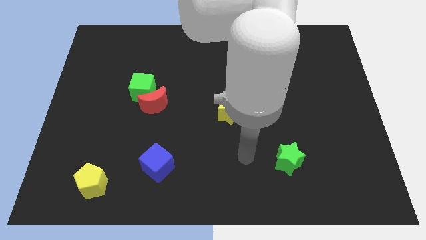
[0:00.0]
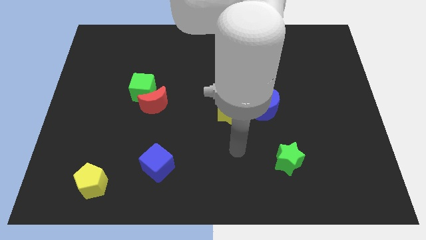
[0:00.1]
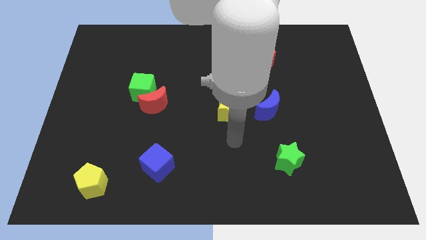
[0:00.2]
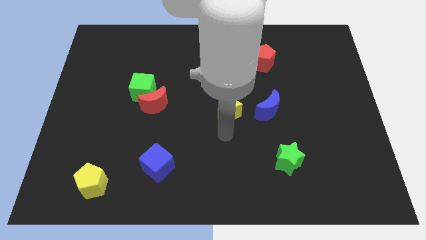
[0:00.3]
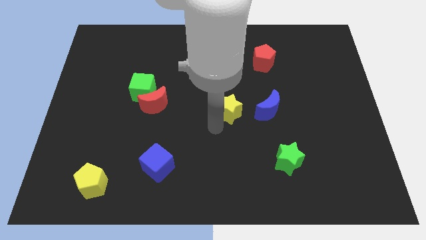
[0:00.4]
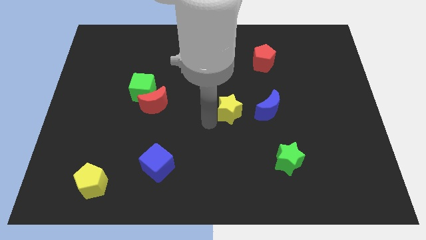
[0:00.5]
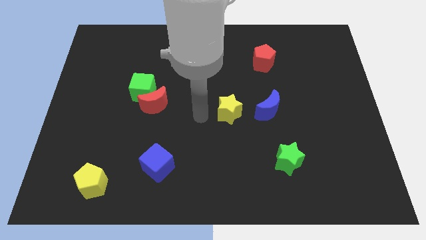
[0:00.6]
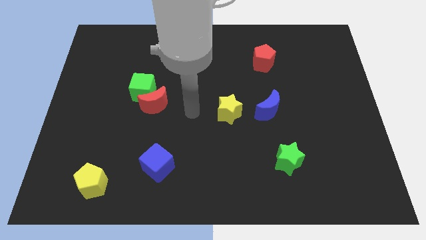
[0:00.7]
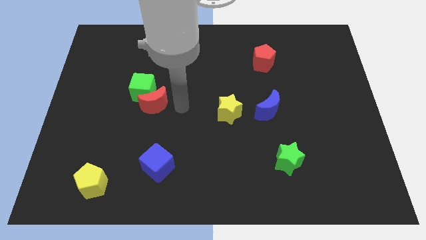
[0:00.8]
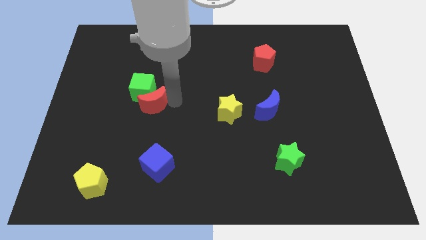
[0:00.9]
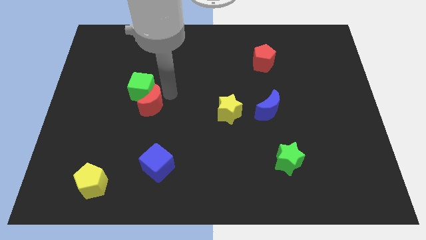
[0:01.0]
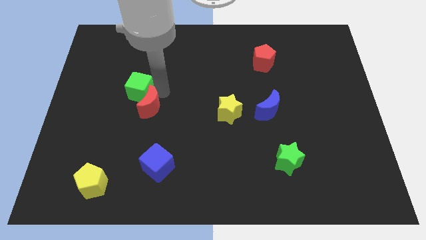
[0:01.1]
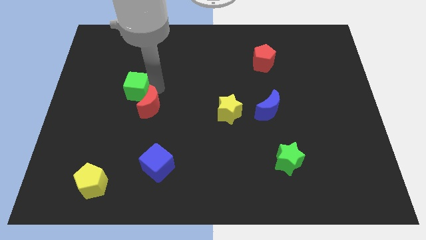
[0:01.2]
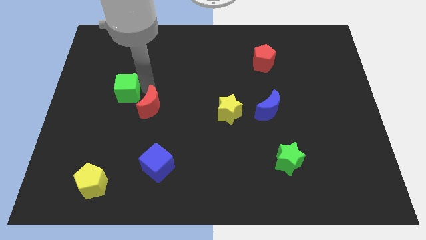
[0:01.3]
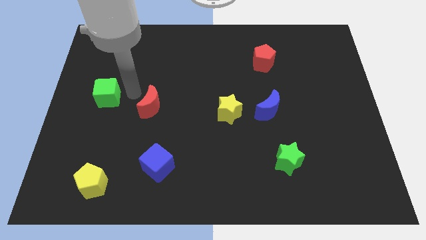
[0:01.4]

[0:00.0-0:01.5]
separate the red moon from the green cube

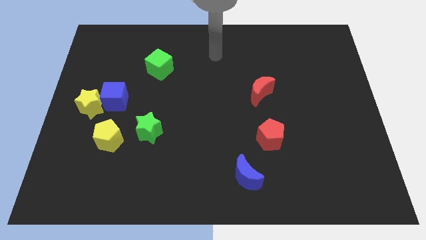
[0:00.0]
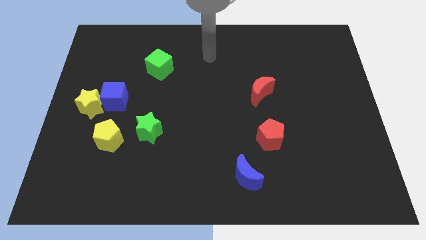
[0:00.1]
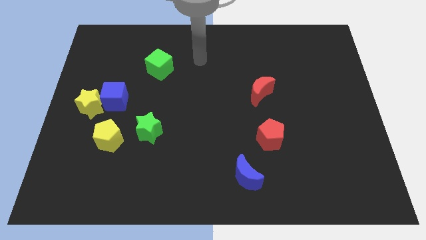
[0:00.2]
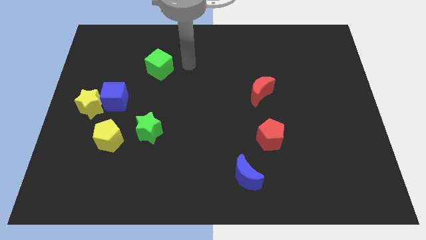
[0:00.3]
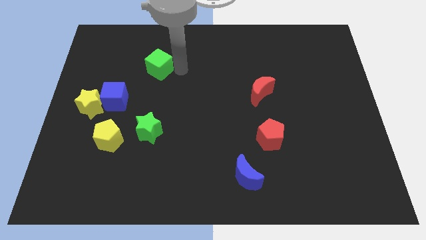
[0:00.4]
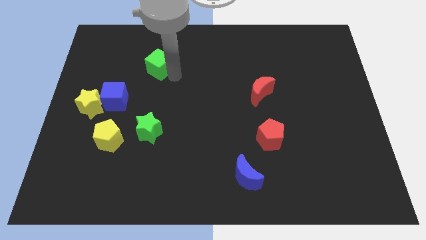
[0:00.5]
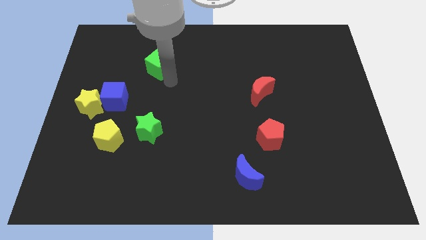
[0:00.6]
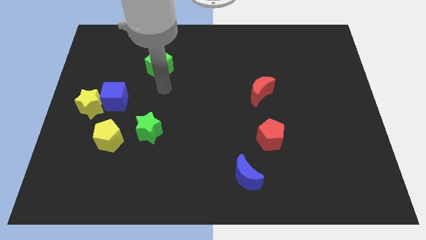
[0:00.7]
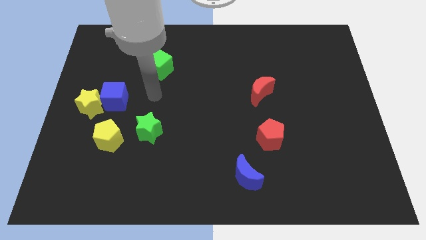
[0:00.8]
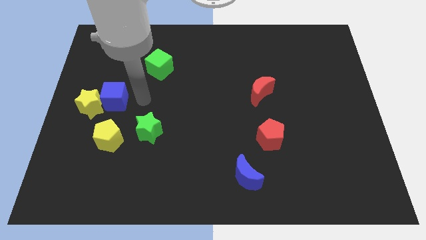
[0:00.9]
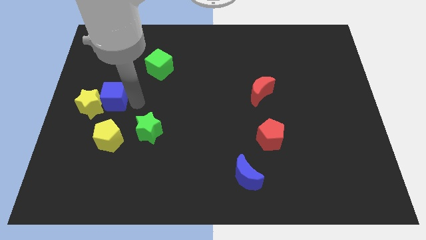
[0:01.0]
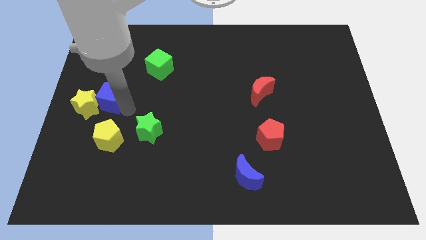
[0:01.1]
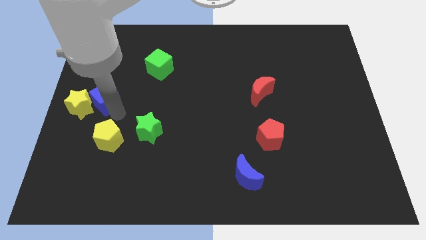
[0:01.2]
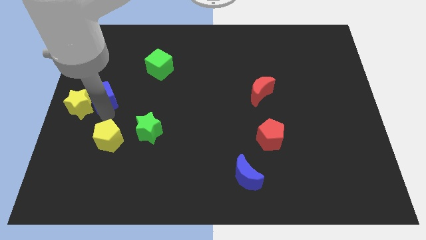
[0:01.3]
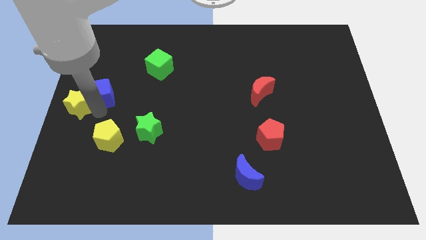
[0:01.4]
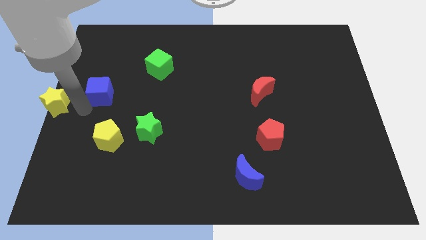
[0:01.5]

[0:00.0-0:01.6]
move the blue cube away from the yellow star

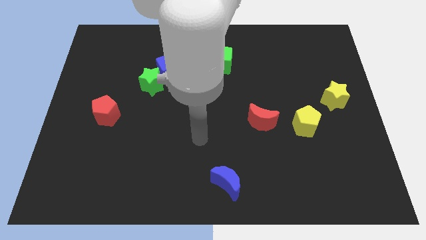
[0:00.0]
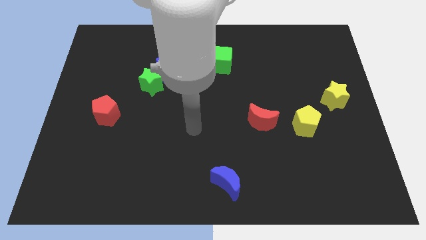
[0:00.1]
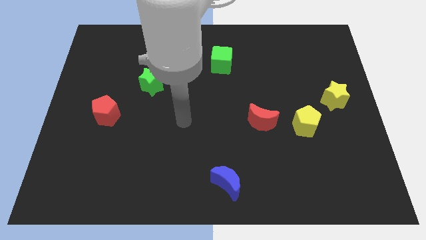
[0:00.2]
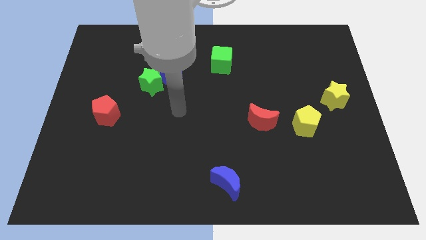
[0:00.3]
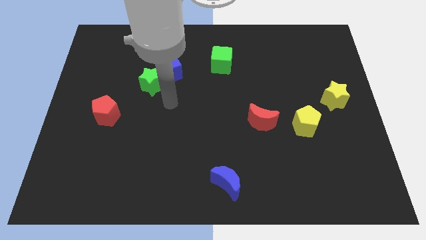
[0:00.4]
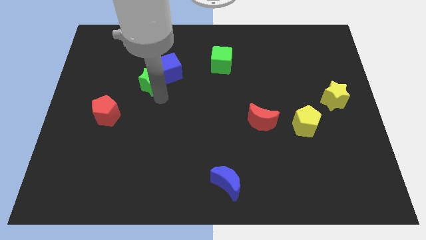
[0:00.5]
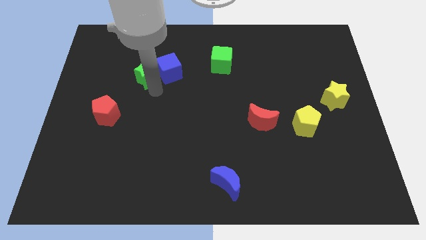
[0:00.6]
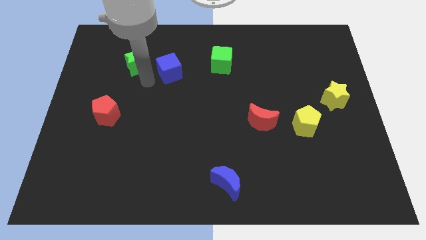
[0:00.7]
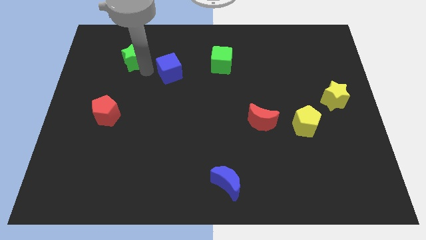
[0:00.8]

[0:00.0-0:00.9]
move the blue cube away from the green star

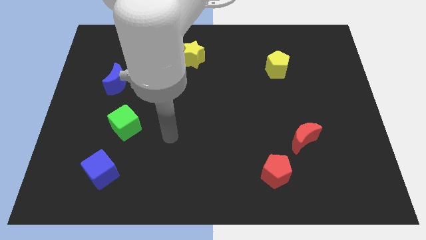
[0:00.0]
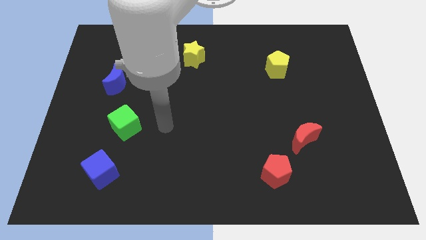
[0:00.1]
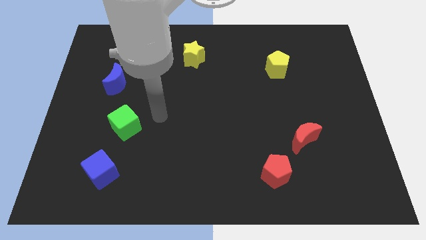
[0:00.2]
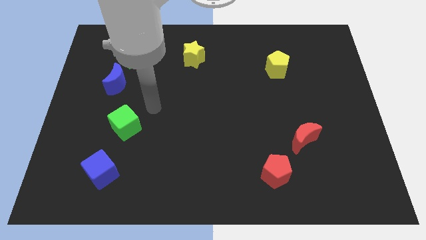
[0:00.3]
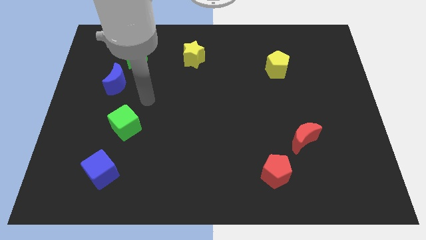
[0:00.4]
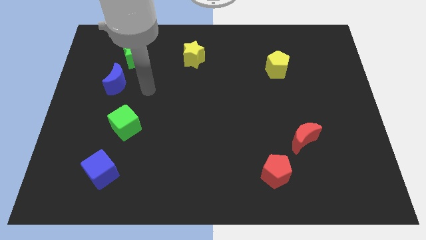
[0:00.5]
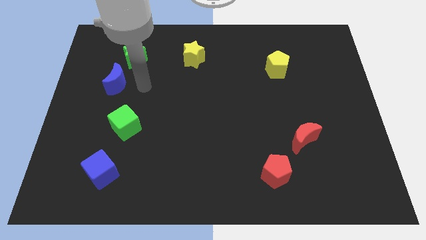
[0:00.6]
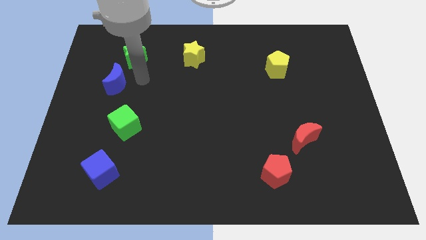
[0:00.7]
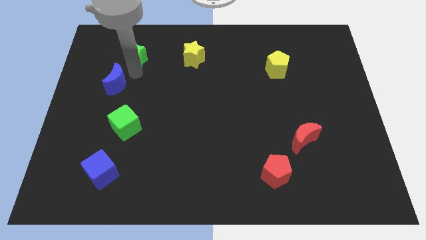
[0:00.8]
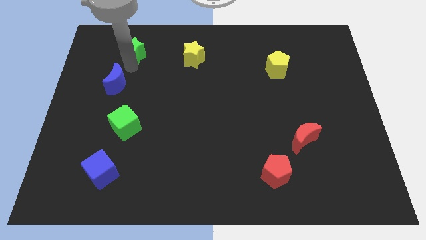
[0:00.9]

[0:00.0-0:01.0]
separate the blue moon from the green star

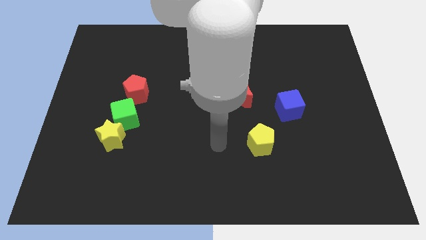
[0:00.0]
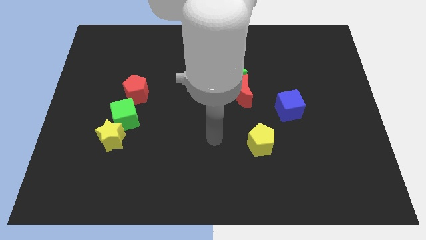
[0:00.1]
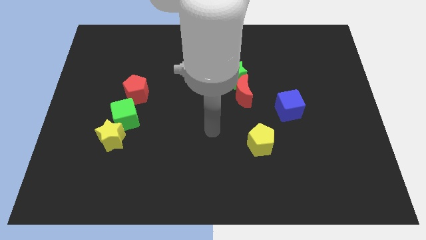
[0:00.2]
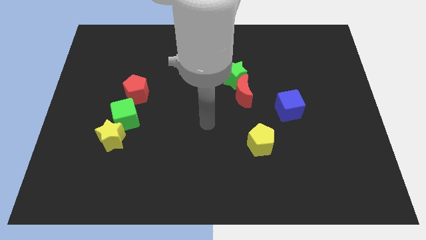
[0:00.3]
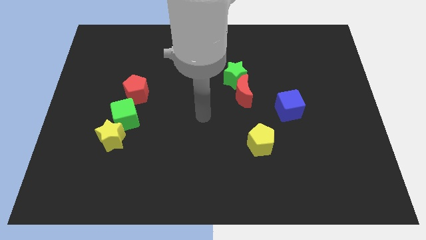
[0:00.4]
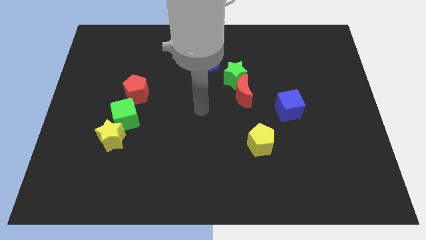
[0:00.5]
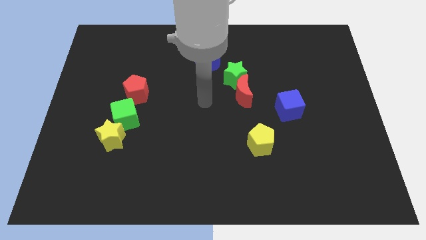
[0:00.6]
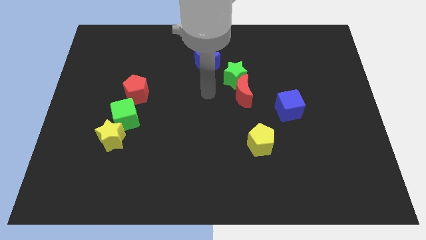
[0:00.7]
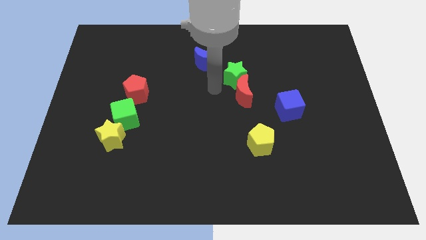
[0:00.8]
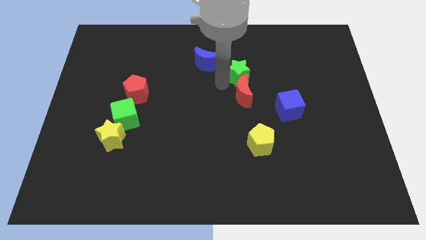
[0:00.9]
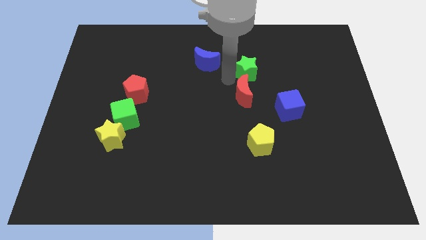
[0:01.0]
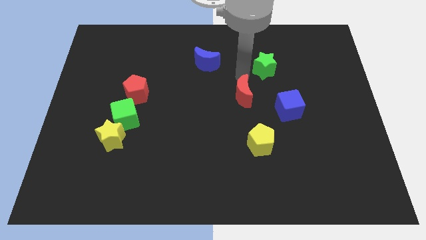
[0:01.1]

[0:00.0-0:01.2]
move the red moon away from the green star

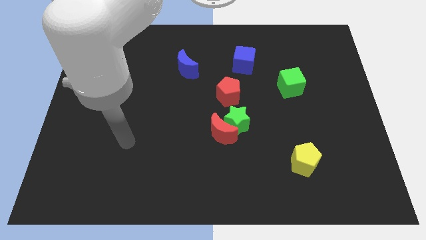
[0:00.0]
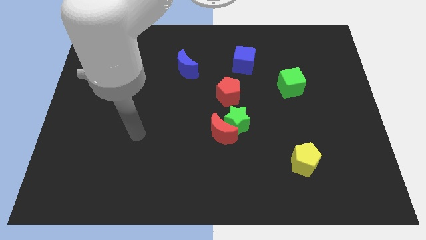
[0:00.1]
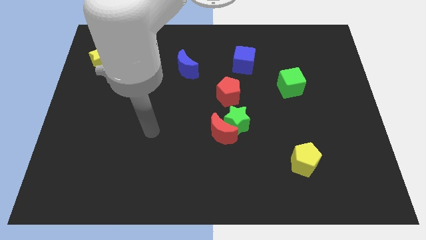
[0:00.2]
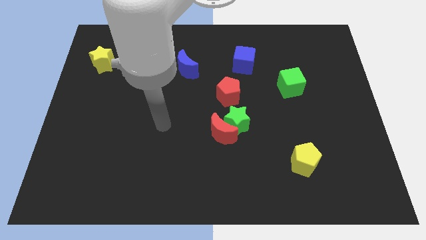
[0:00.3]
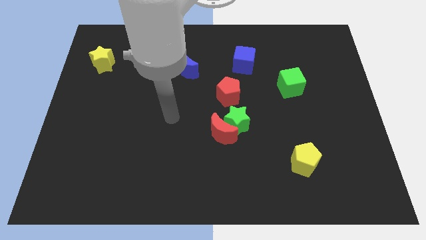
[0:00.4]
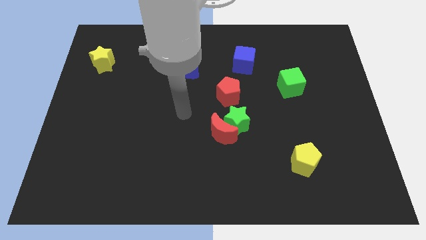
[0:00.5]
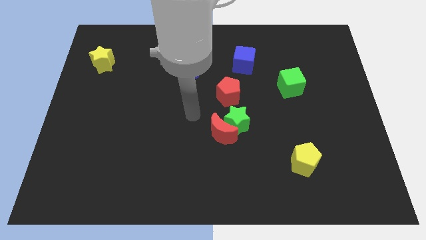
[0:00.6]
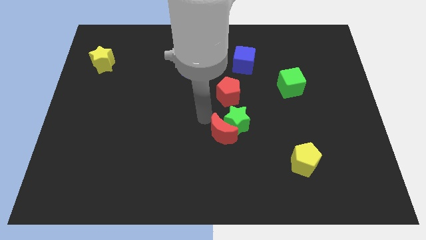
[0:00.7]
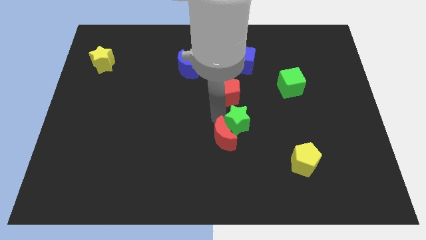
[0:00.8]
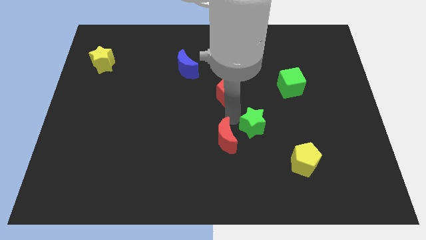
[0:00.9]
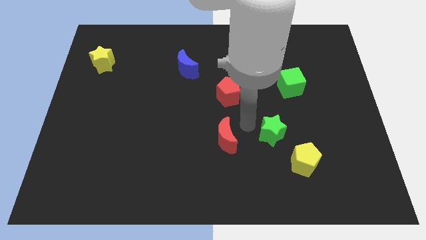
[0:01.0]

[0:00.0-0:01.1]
pull the red moon apart from the green star

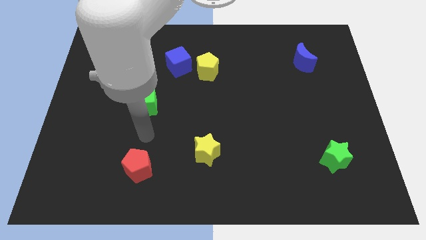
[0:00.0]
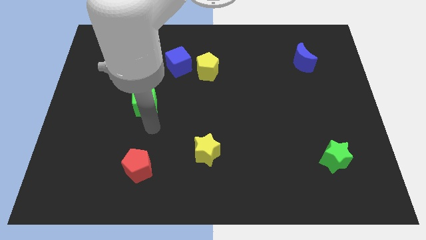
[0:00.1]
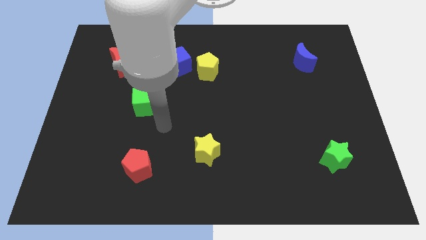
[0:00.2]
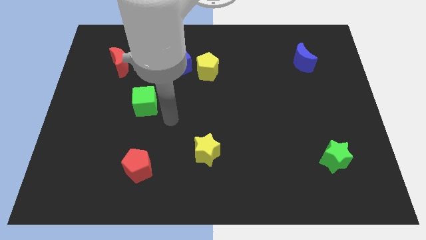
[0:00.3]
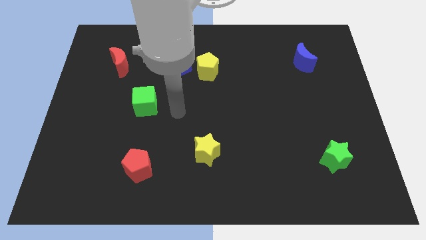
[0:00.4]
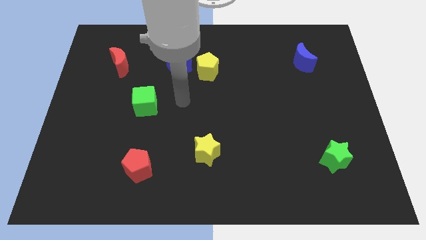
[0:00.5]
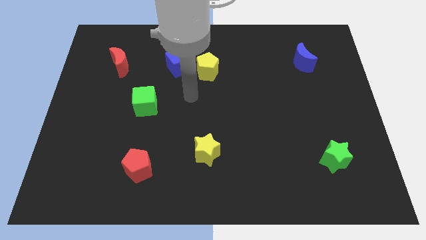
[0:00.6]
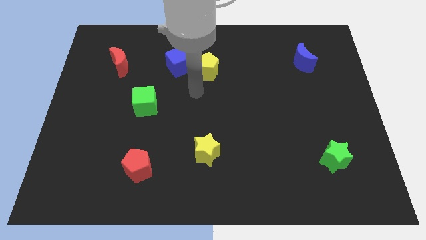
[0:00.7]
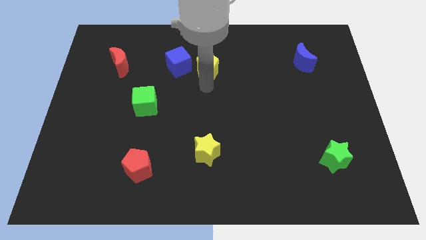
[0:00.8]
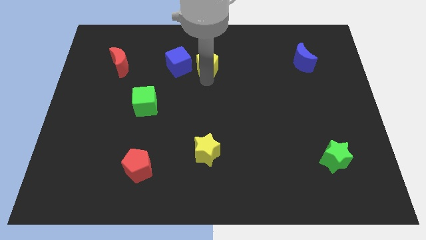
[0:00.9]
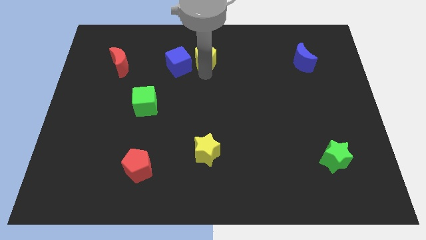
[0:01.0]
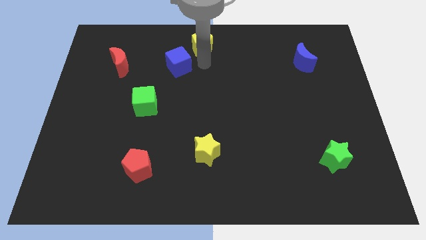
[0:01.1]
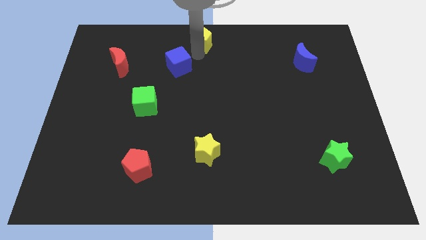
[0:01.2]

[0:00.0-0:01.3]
separate the blue cube from the yellow pentagon

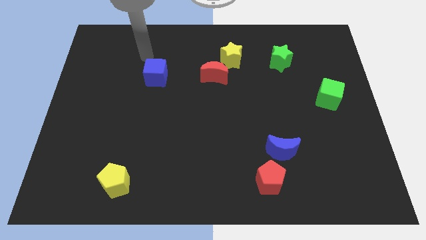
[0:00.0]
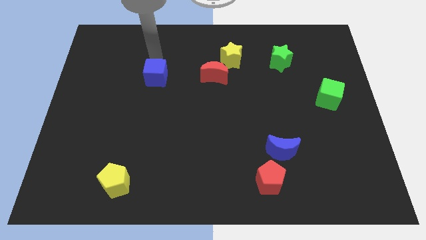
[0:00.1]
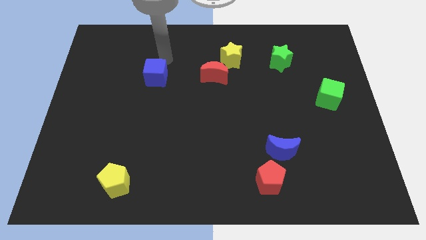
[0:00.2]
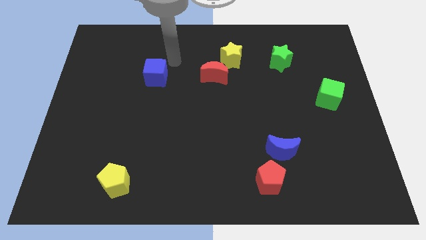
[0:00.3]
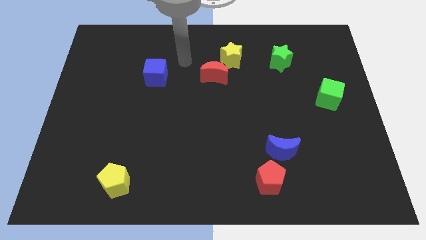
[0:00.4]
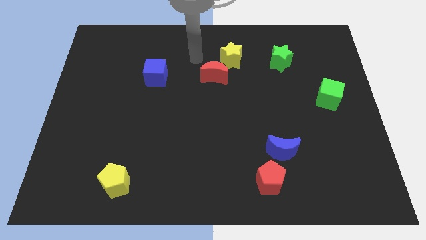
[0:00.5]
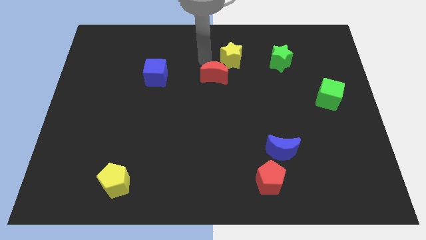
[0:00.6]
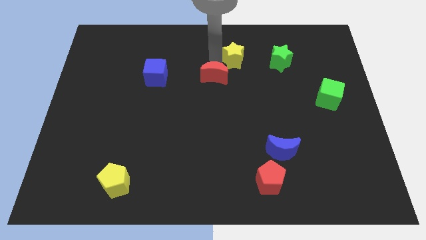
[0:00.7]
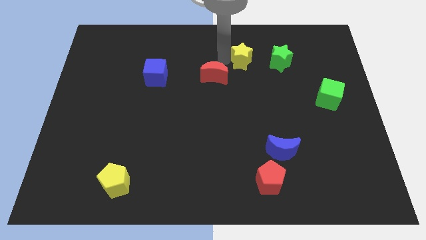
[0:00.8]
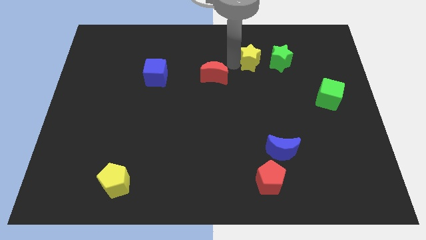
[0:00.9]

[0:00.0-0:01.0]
separate the red moon from the yellow star
